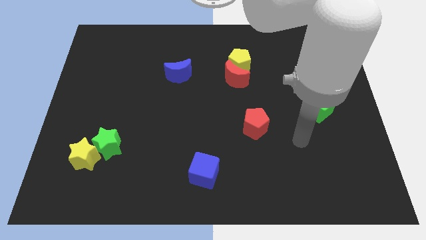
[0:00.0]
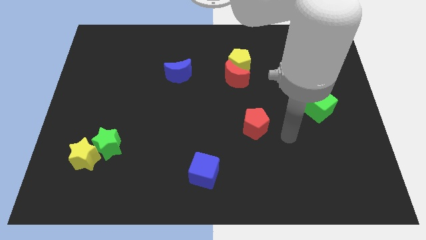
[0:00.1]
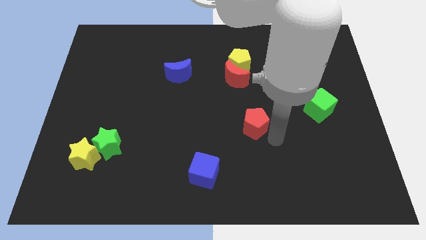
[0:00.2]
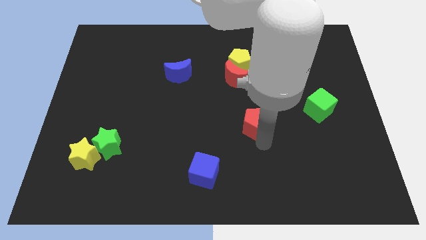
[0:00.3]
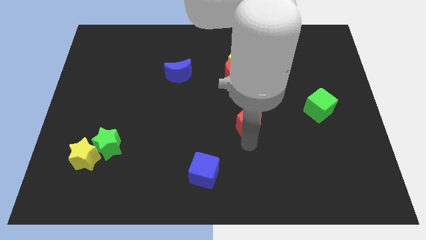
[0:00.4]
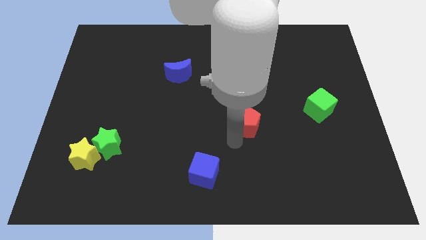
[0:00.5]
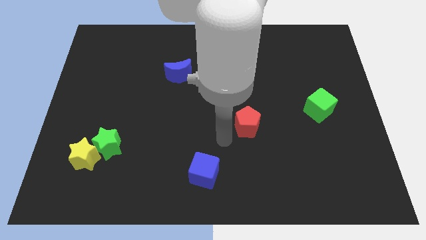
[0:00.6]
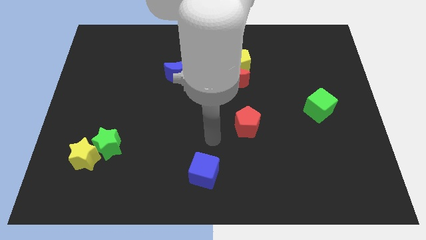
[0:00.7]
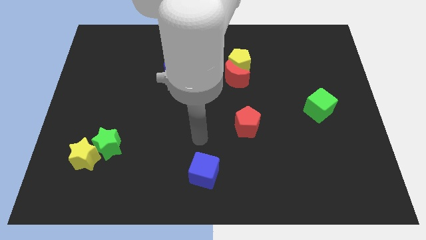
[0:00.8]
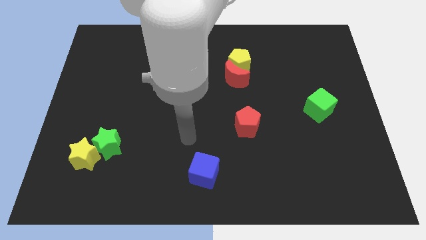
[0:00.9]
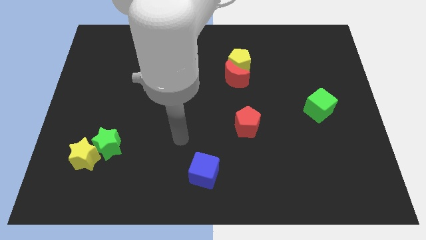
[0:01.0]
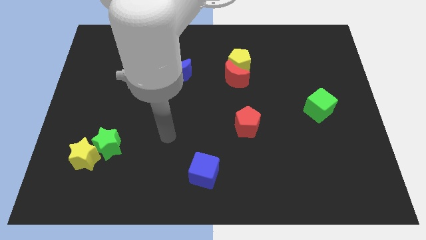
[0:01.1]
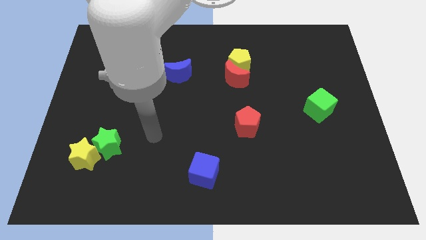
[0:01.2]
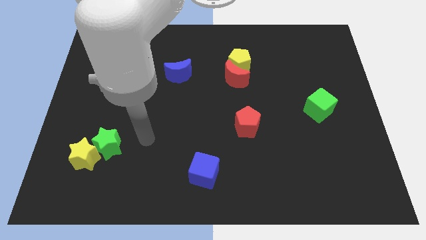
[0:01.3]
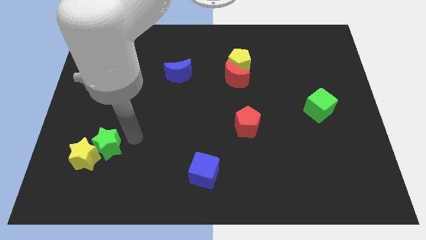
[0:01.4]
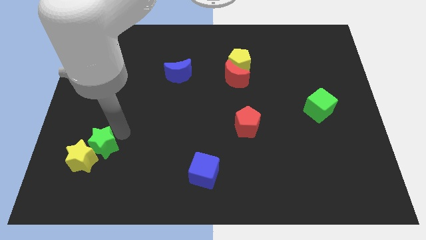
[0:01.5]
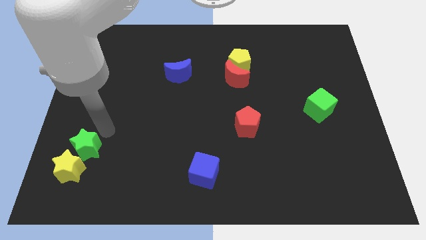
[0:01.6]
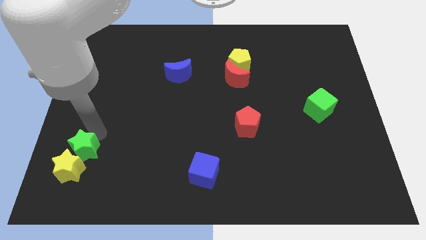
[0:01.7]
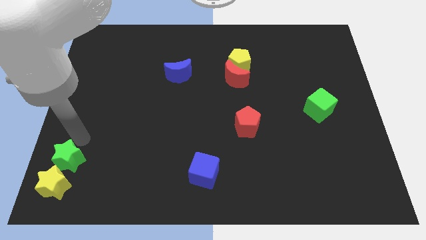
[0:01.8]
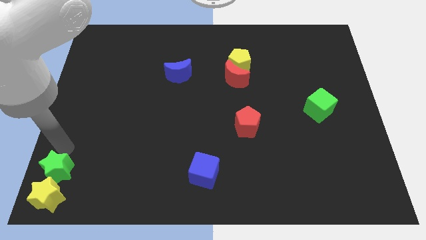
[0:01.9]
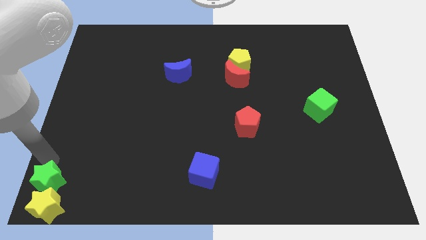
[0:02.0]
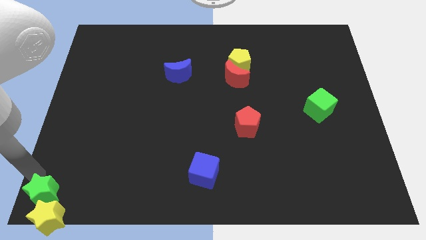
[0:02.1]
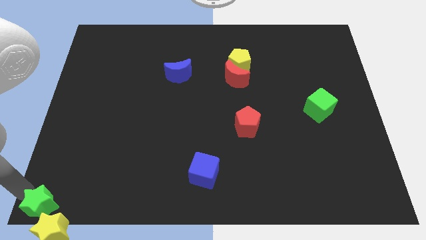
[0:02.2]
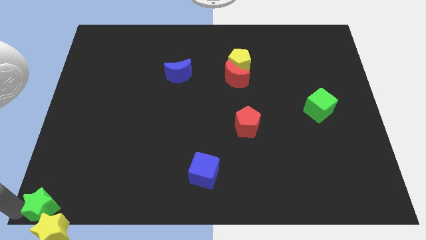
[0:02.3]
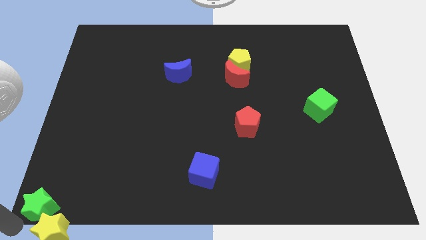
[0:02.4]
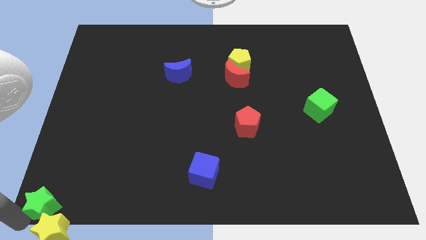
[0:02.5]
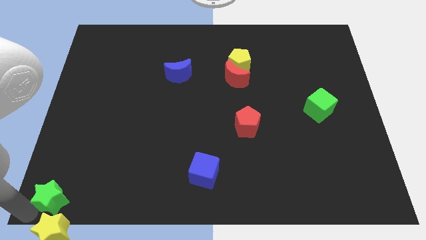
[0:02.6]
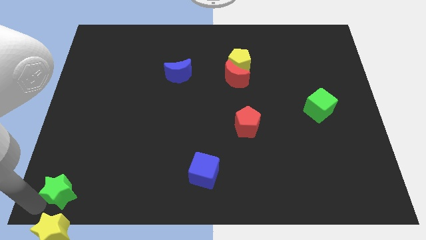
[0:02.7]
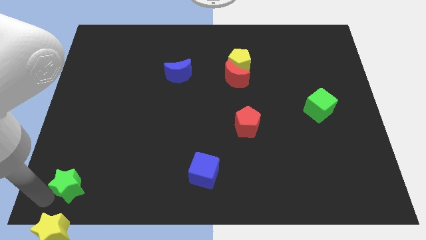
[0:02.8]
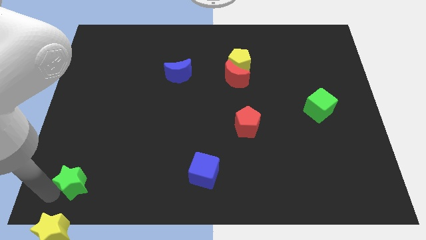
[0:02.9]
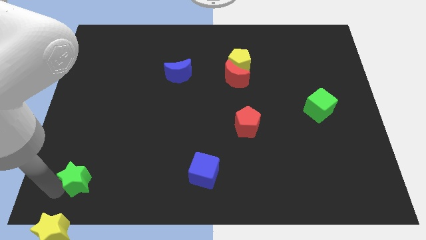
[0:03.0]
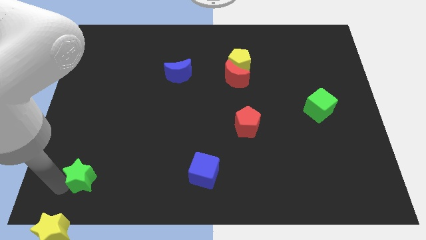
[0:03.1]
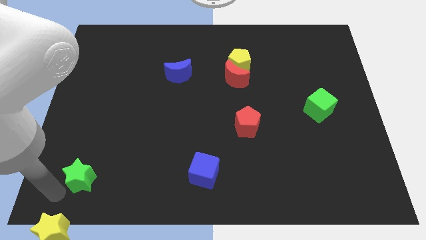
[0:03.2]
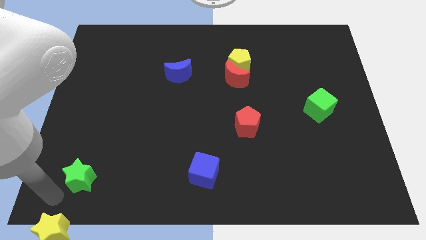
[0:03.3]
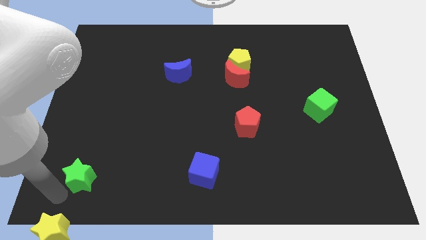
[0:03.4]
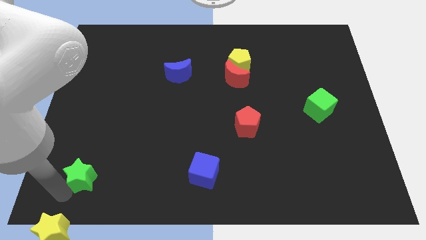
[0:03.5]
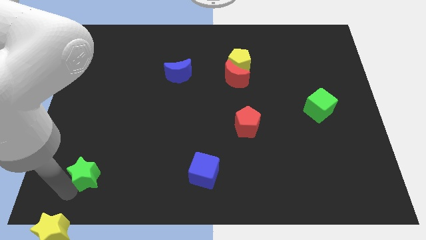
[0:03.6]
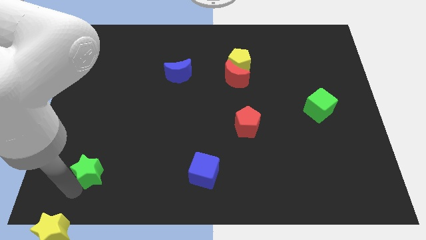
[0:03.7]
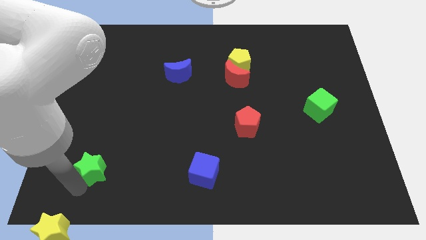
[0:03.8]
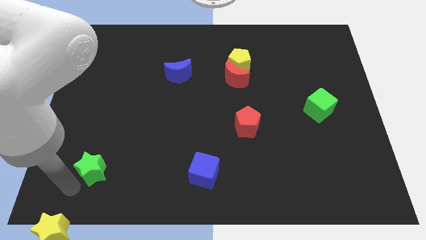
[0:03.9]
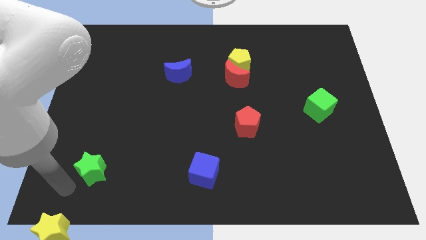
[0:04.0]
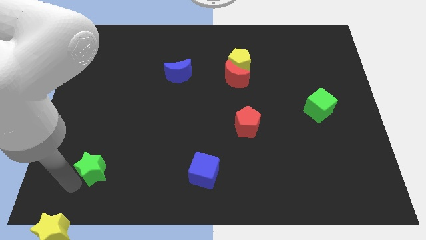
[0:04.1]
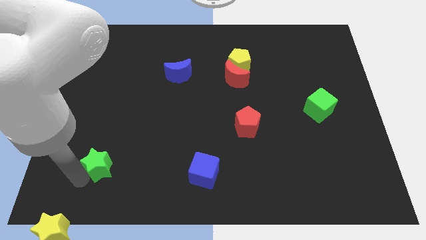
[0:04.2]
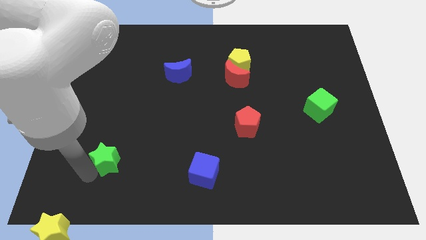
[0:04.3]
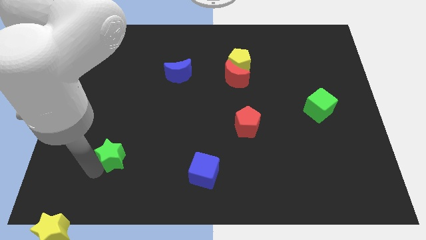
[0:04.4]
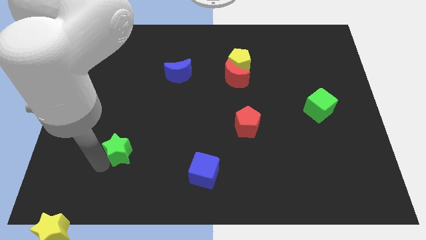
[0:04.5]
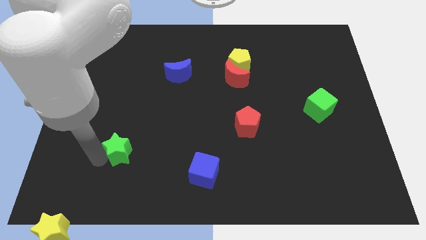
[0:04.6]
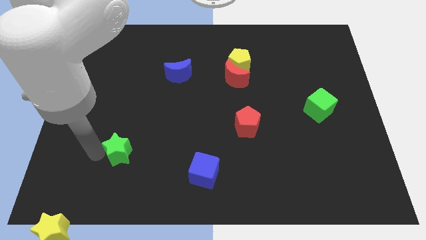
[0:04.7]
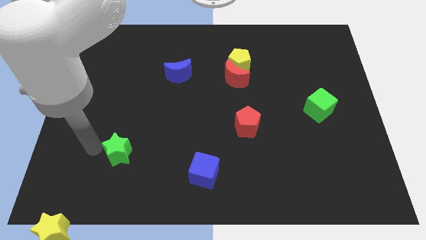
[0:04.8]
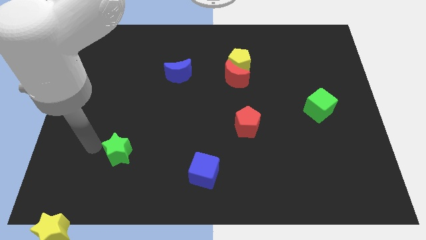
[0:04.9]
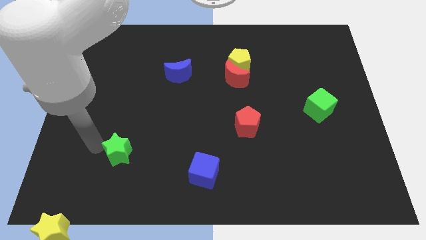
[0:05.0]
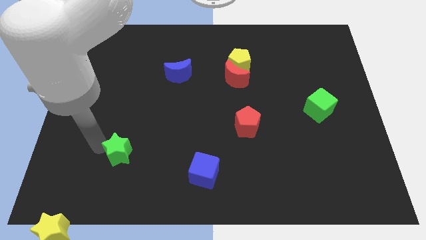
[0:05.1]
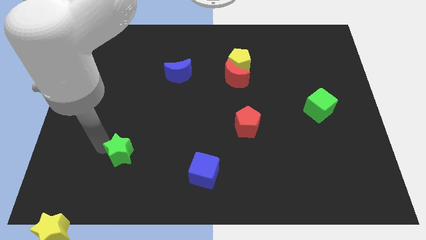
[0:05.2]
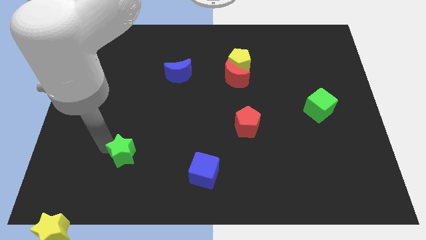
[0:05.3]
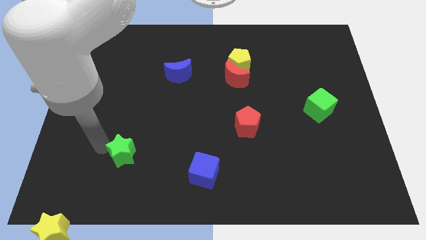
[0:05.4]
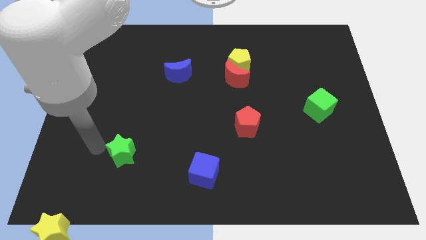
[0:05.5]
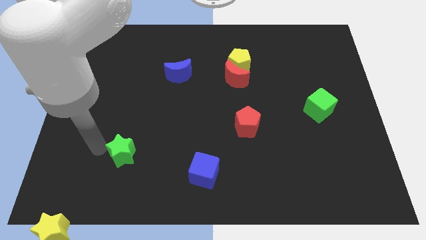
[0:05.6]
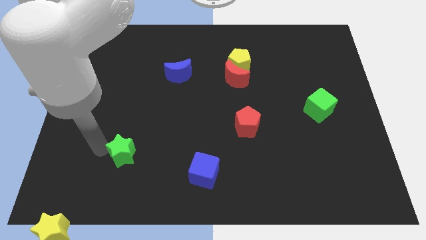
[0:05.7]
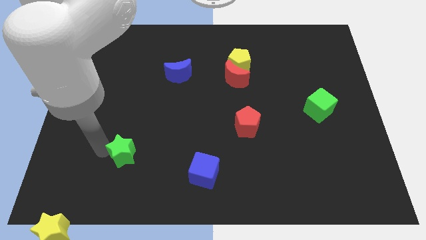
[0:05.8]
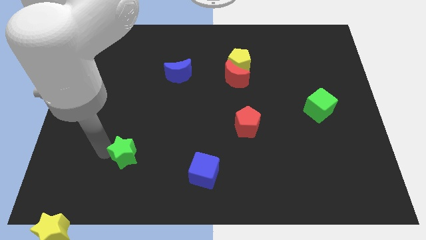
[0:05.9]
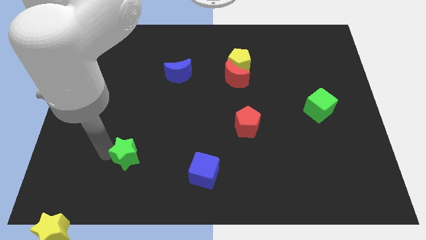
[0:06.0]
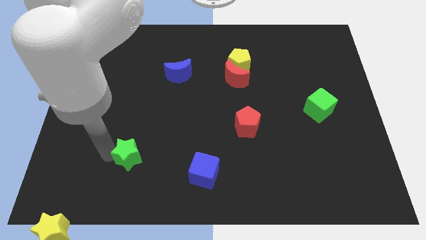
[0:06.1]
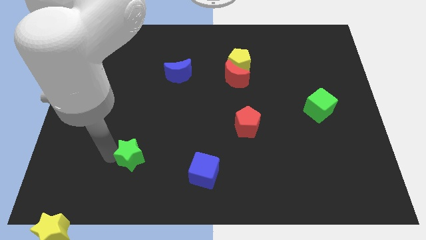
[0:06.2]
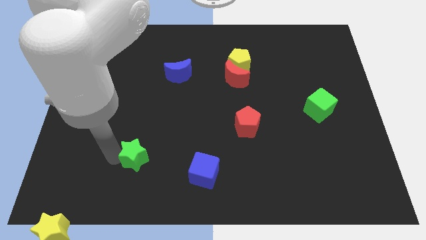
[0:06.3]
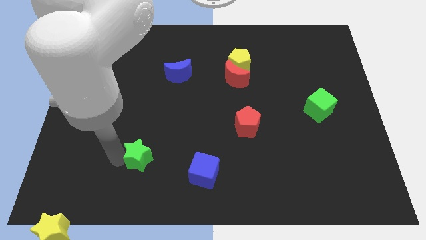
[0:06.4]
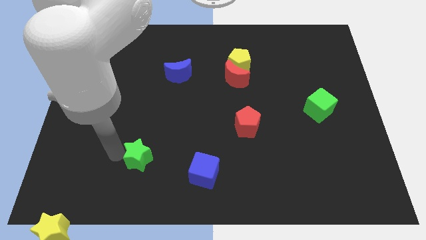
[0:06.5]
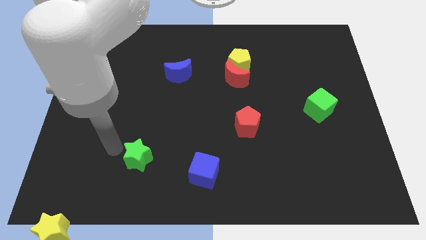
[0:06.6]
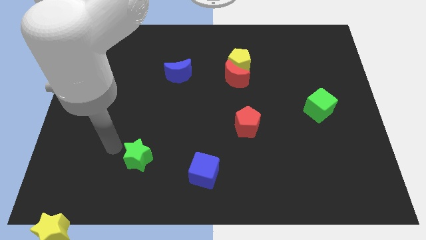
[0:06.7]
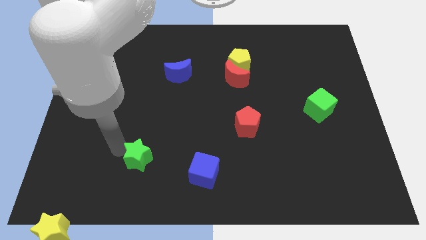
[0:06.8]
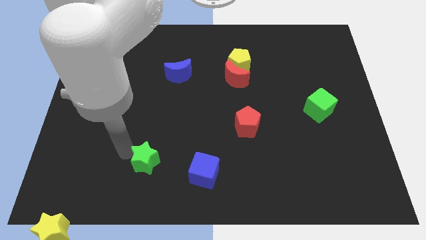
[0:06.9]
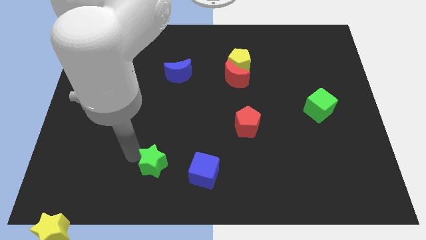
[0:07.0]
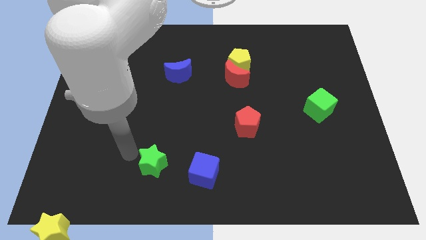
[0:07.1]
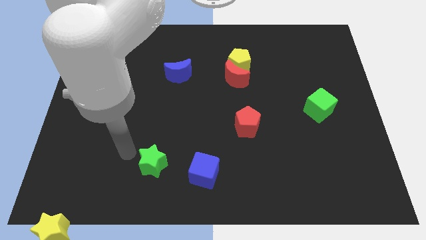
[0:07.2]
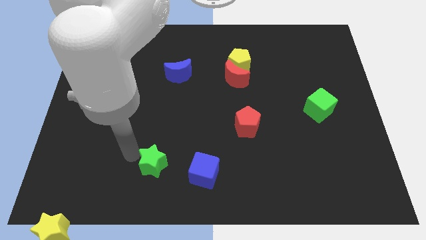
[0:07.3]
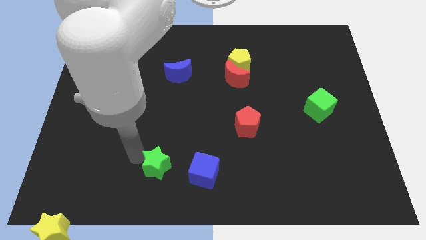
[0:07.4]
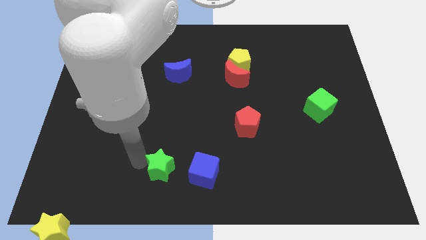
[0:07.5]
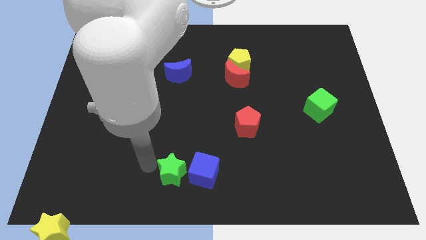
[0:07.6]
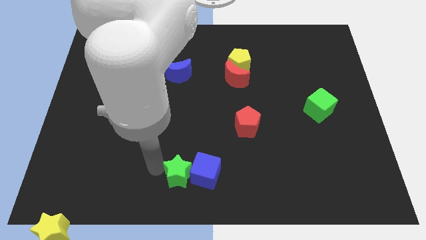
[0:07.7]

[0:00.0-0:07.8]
move the green star next to the blue cube
